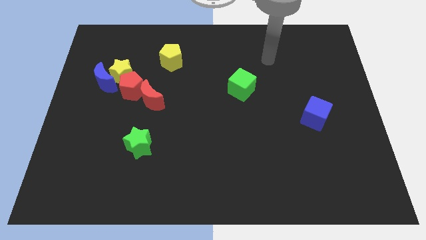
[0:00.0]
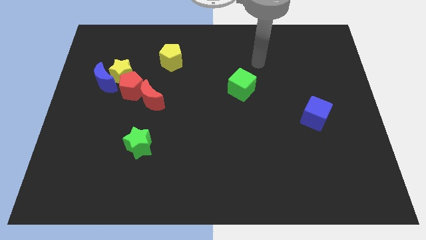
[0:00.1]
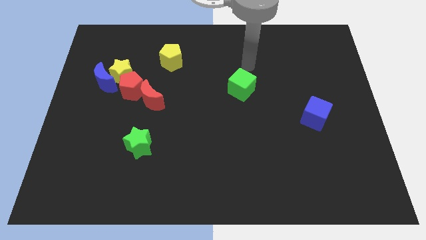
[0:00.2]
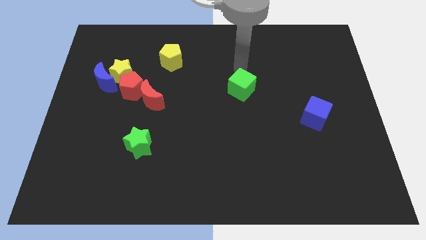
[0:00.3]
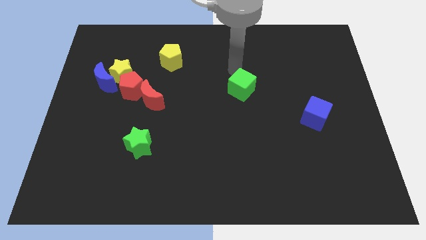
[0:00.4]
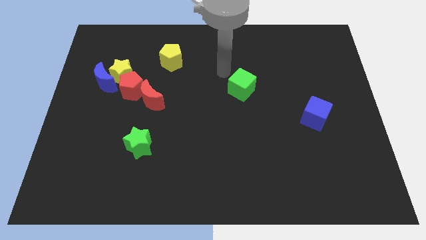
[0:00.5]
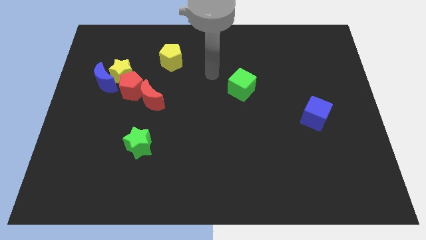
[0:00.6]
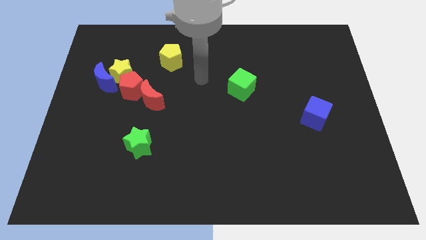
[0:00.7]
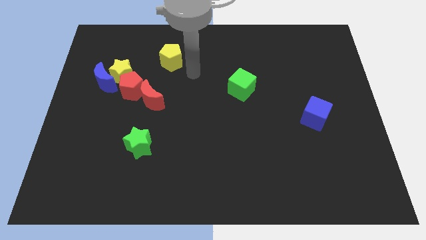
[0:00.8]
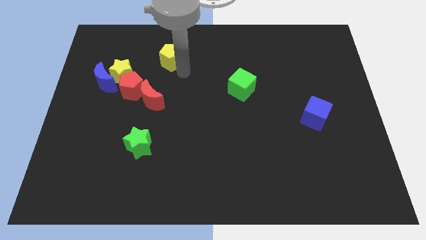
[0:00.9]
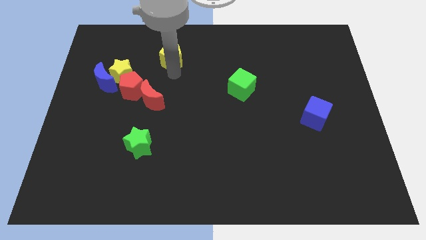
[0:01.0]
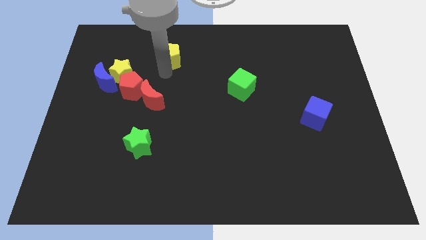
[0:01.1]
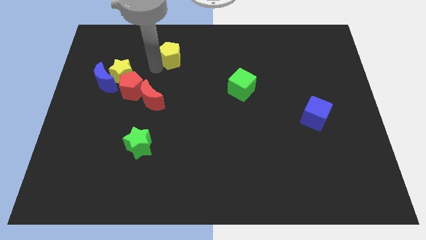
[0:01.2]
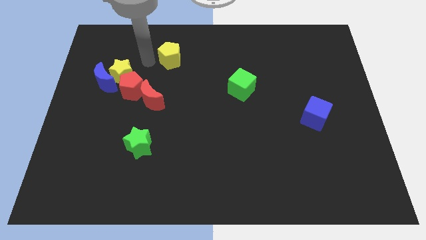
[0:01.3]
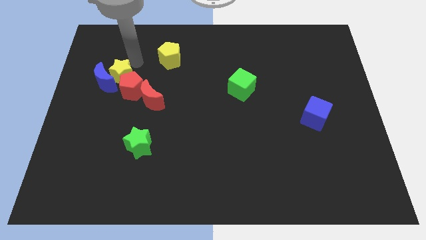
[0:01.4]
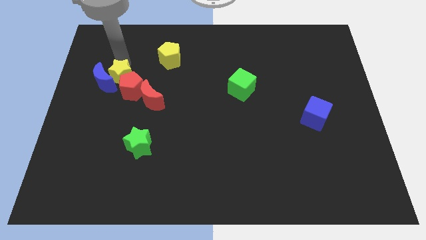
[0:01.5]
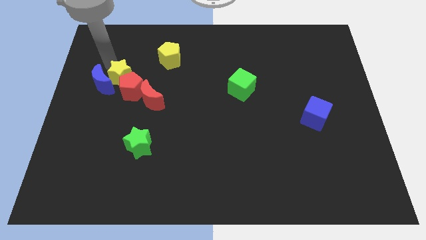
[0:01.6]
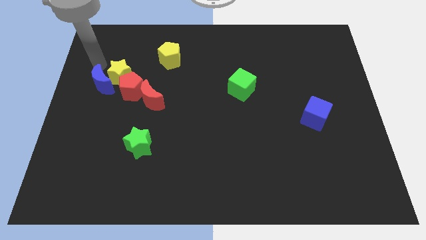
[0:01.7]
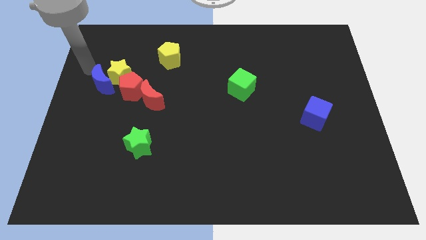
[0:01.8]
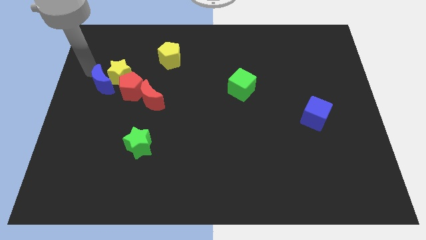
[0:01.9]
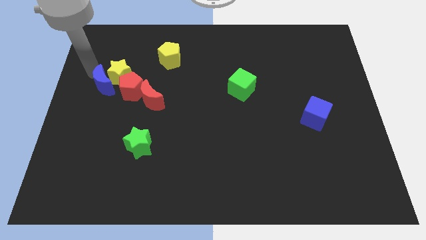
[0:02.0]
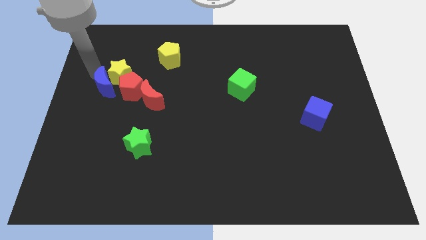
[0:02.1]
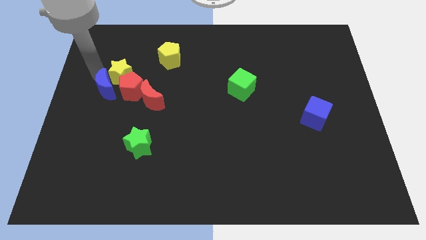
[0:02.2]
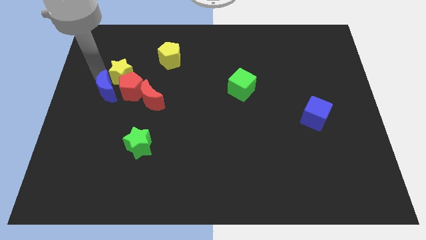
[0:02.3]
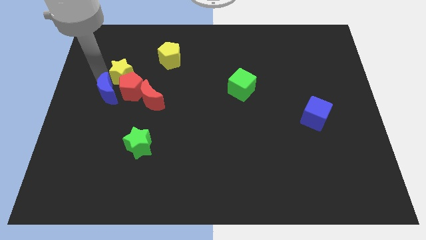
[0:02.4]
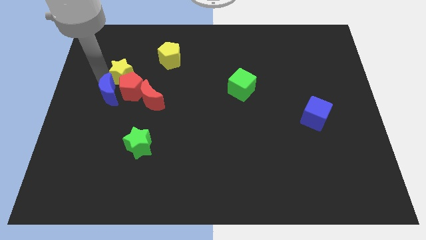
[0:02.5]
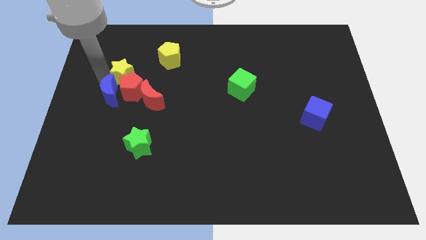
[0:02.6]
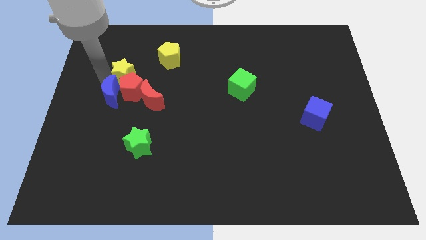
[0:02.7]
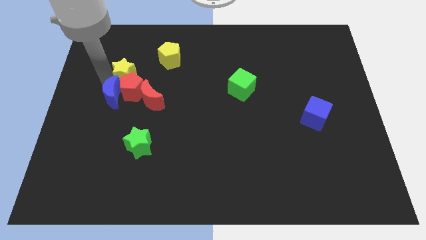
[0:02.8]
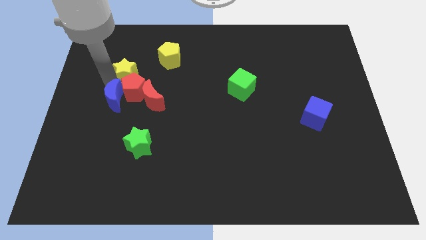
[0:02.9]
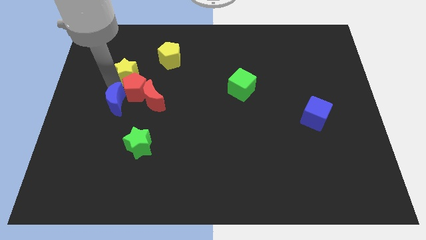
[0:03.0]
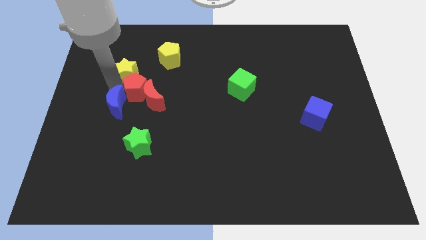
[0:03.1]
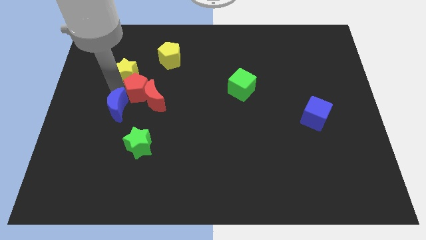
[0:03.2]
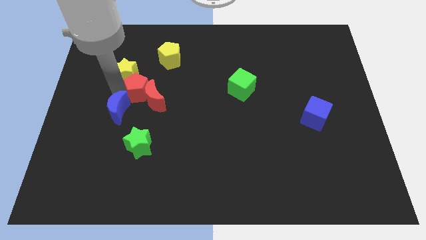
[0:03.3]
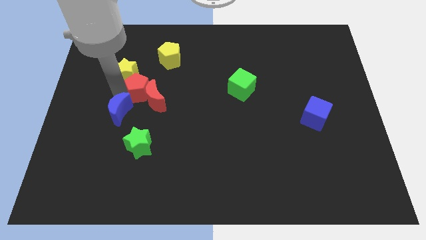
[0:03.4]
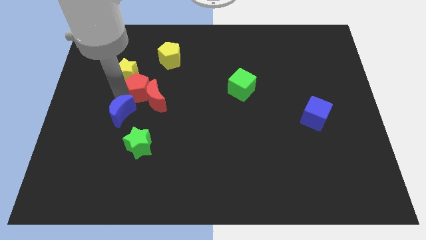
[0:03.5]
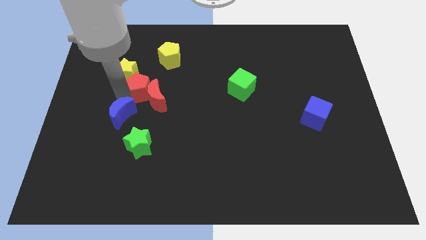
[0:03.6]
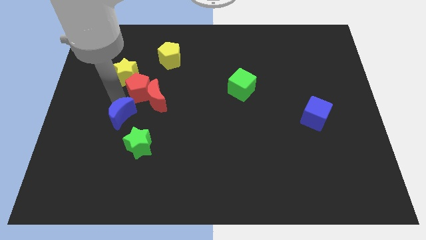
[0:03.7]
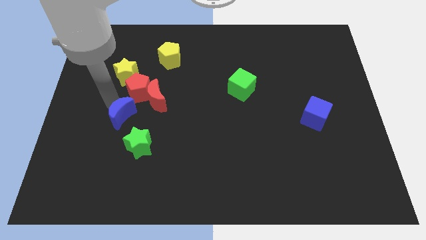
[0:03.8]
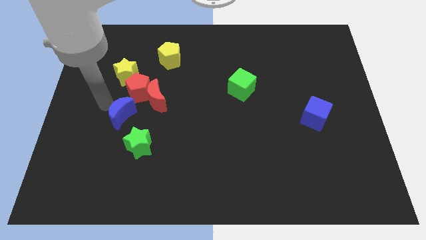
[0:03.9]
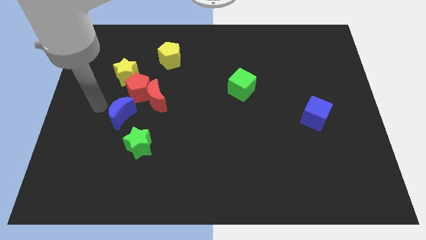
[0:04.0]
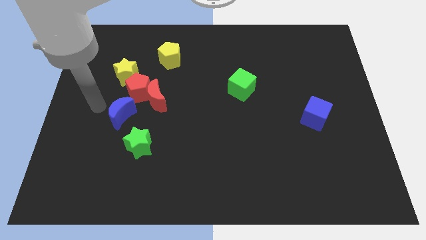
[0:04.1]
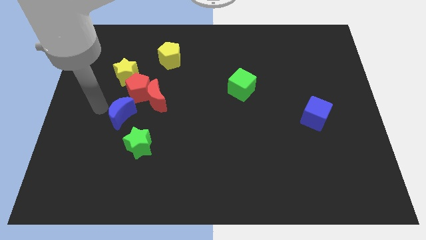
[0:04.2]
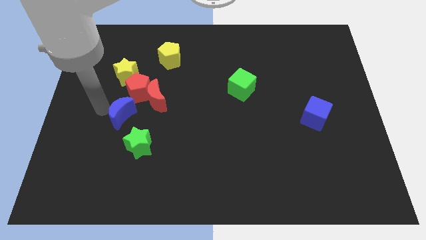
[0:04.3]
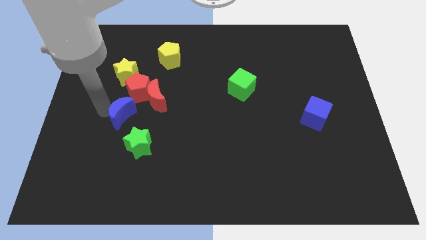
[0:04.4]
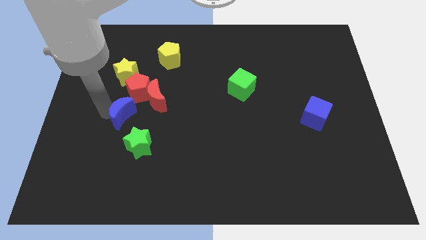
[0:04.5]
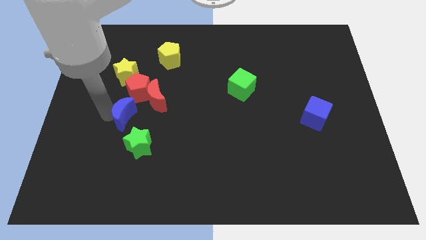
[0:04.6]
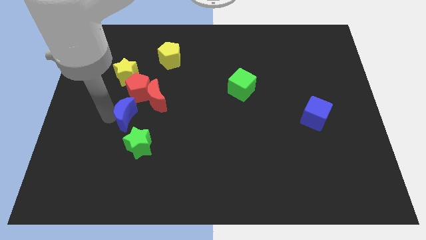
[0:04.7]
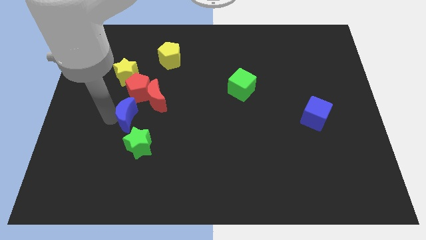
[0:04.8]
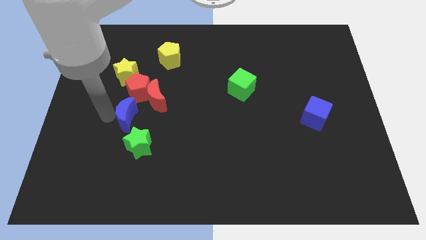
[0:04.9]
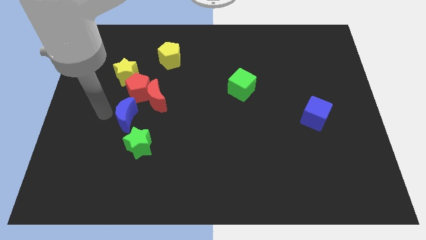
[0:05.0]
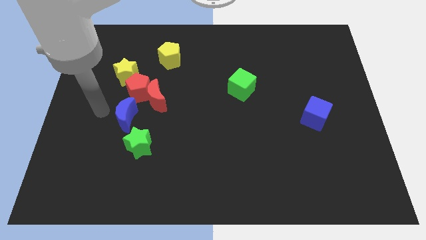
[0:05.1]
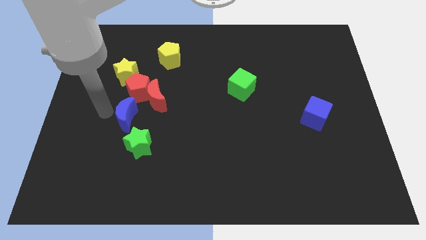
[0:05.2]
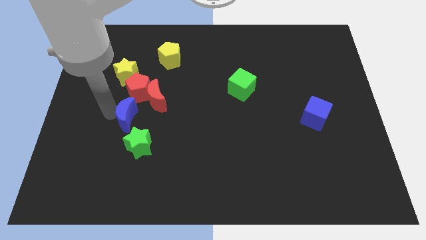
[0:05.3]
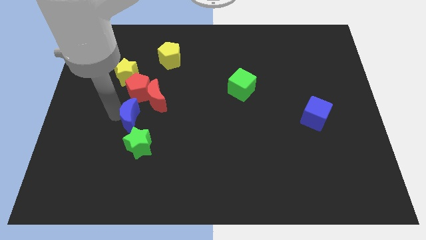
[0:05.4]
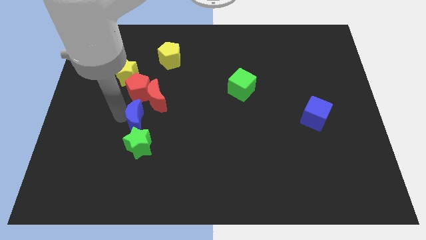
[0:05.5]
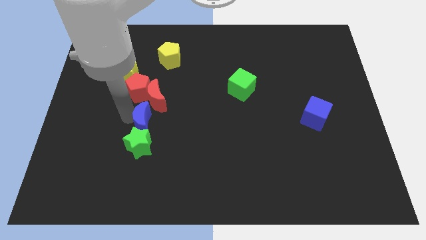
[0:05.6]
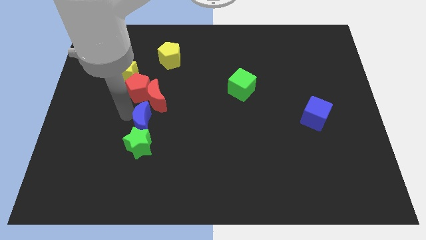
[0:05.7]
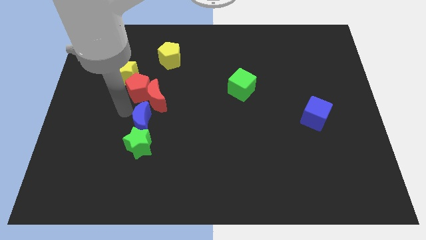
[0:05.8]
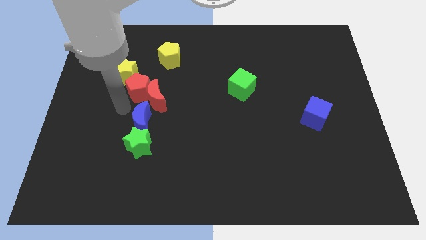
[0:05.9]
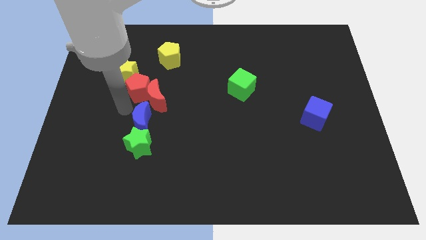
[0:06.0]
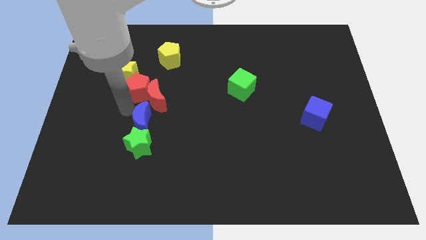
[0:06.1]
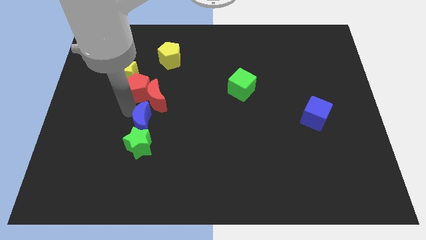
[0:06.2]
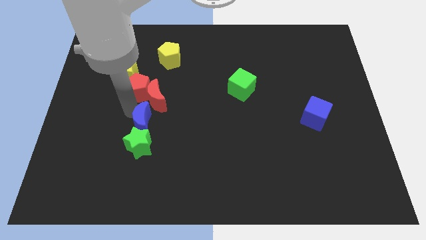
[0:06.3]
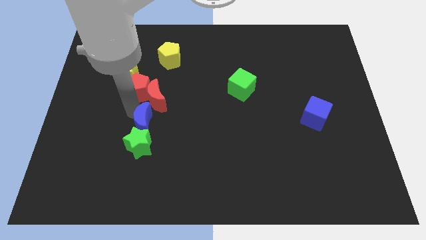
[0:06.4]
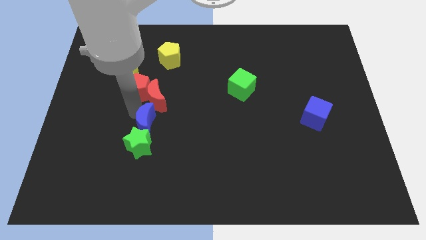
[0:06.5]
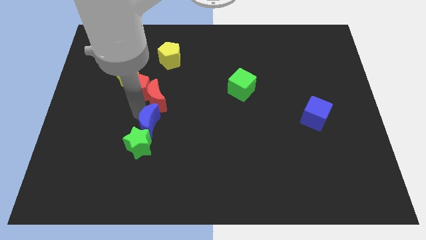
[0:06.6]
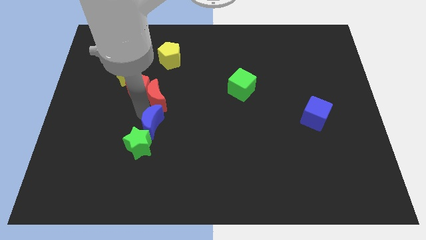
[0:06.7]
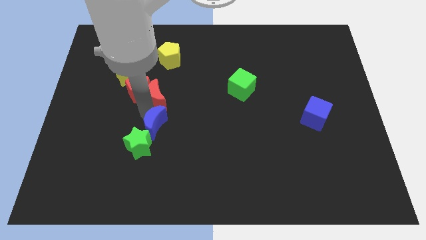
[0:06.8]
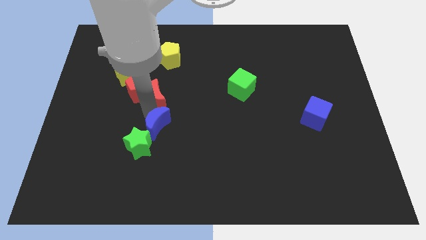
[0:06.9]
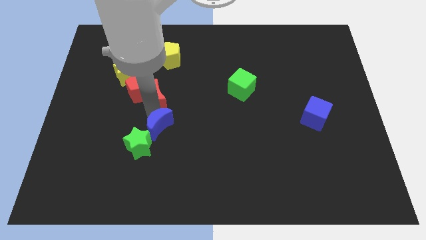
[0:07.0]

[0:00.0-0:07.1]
move the blue moon downwards and right

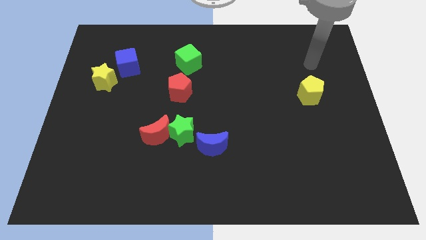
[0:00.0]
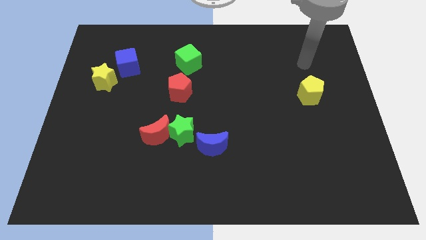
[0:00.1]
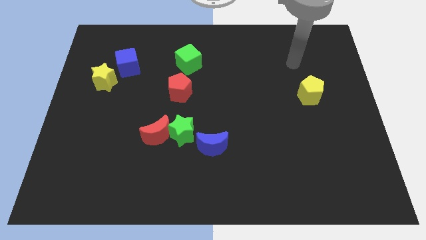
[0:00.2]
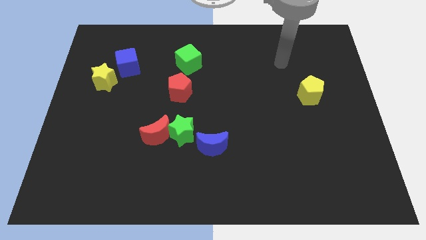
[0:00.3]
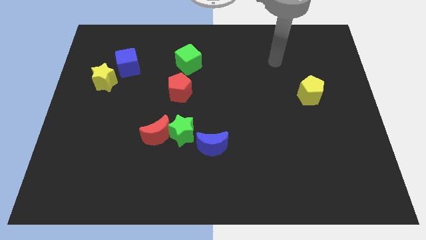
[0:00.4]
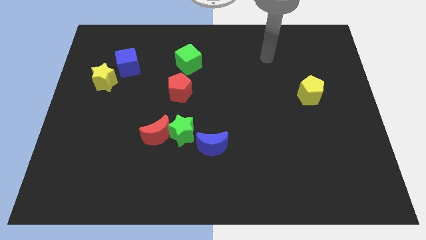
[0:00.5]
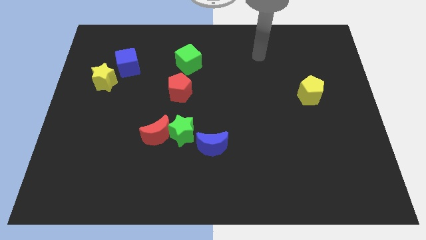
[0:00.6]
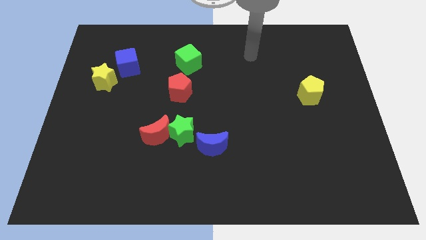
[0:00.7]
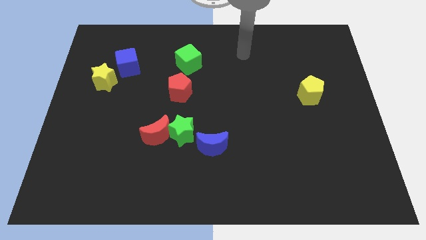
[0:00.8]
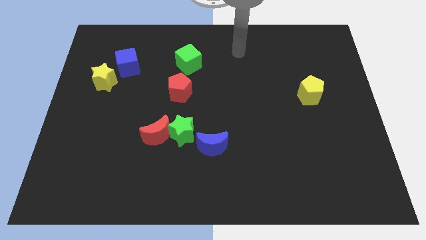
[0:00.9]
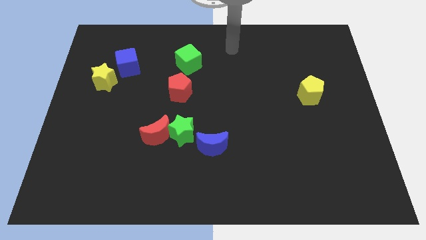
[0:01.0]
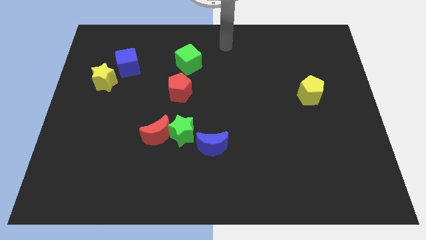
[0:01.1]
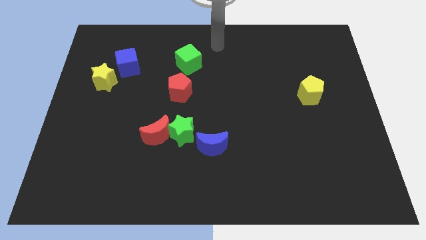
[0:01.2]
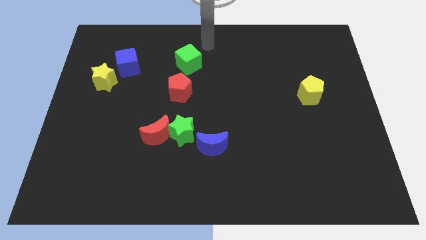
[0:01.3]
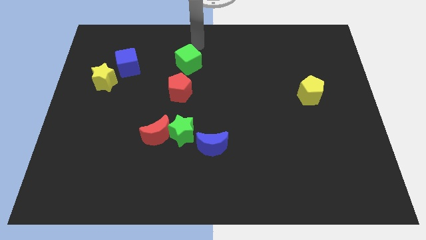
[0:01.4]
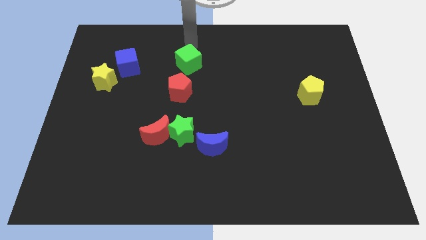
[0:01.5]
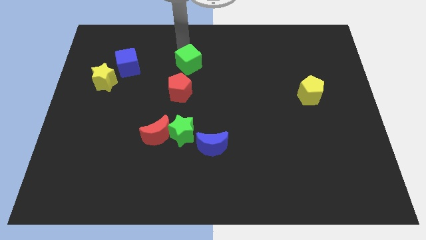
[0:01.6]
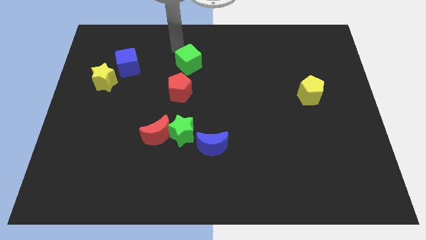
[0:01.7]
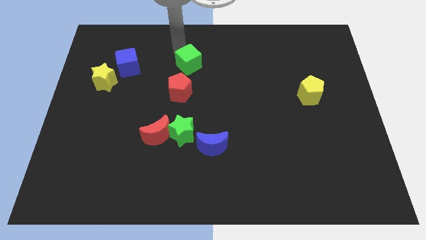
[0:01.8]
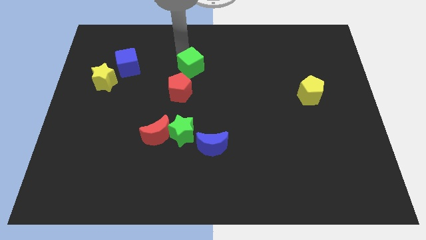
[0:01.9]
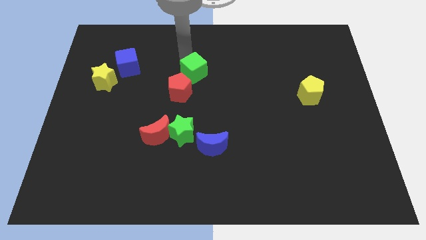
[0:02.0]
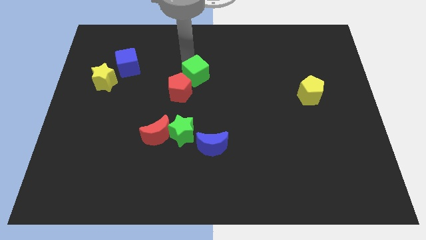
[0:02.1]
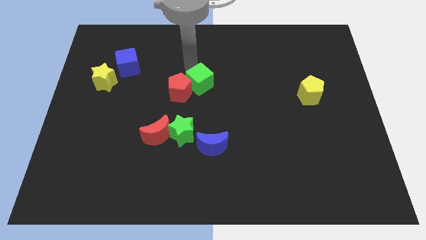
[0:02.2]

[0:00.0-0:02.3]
push the green cube somewhat down and right
